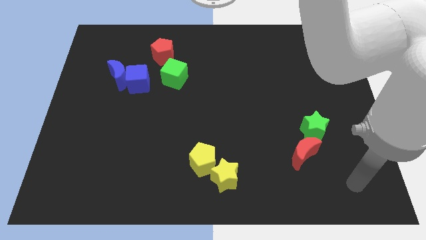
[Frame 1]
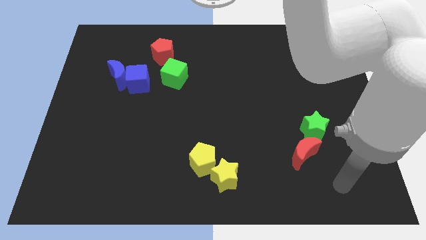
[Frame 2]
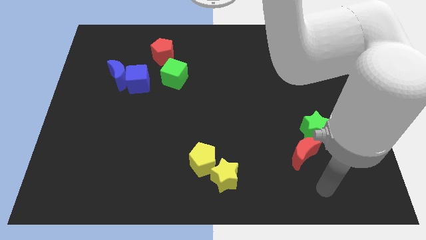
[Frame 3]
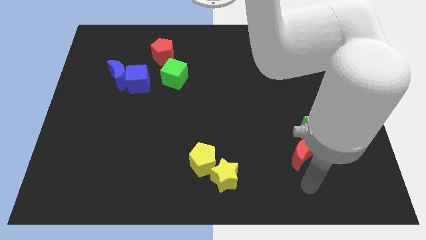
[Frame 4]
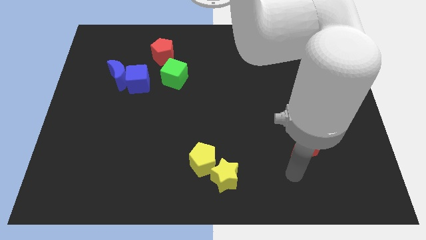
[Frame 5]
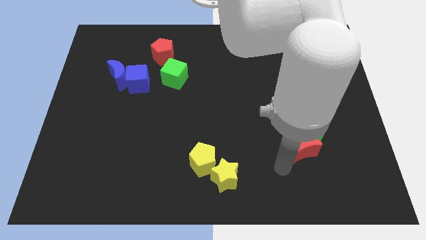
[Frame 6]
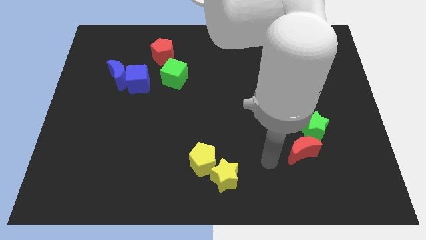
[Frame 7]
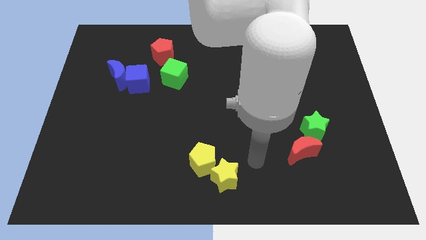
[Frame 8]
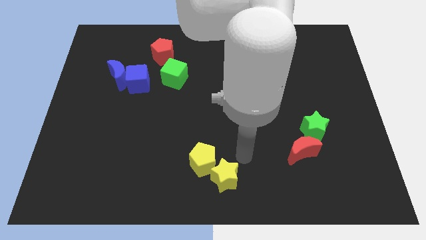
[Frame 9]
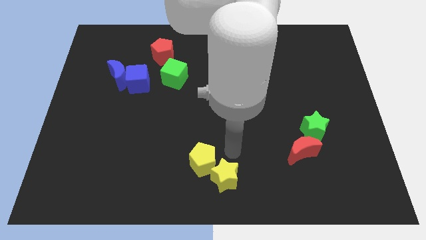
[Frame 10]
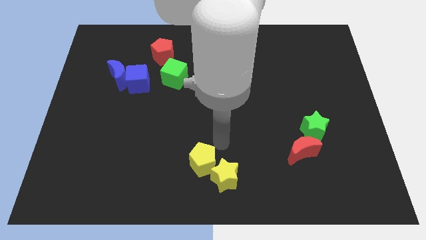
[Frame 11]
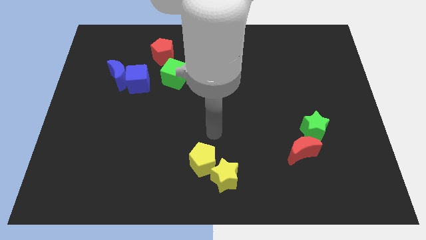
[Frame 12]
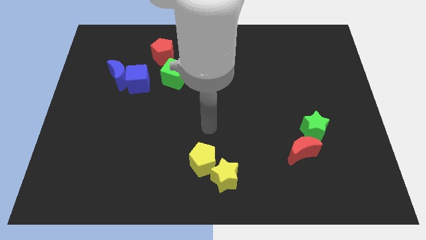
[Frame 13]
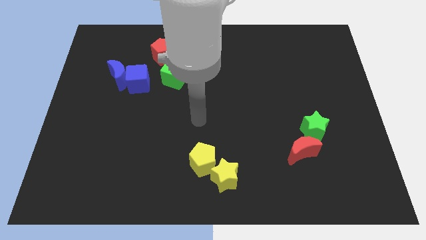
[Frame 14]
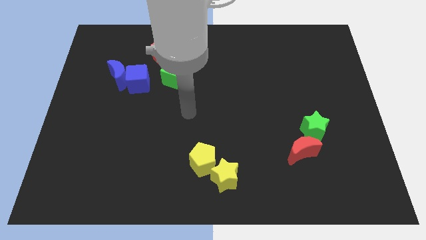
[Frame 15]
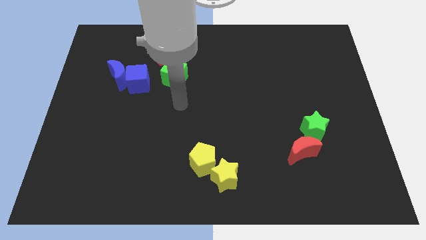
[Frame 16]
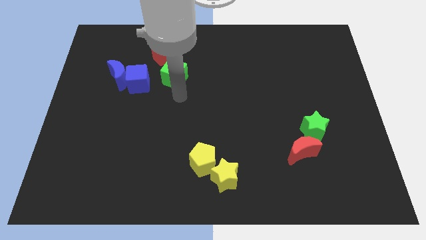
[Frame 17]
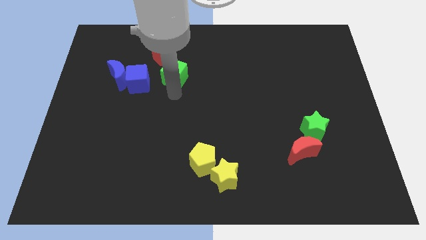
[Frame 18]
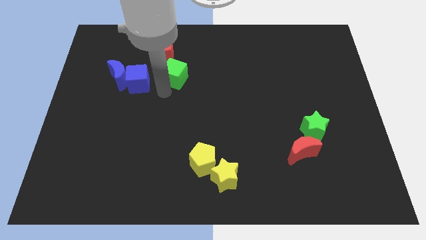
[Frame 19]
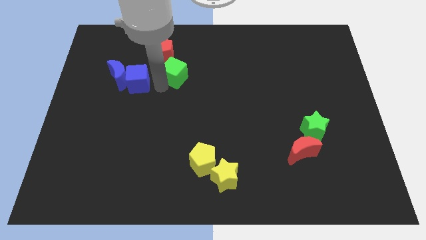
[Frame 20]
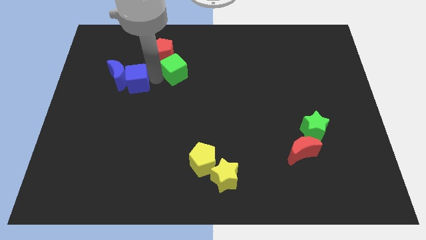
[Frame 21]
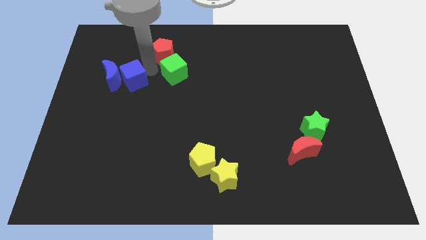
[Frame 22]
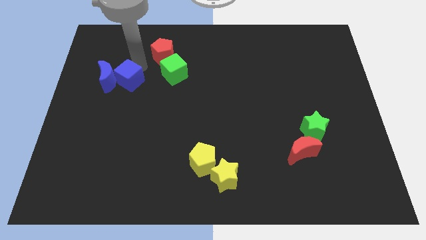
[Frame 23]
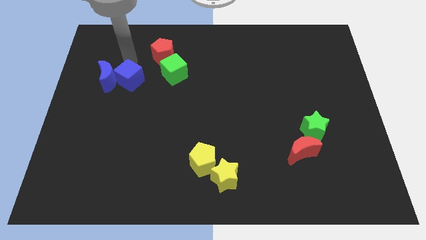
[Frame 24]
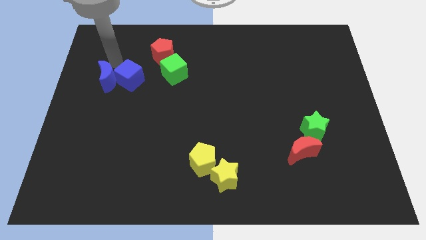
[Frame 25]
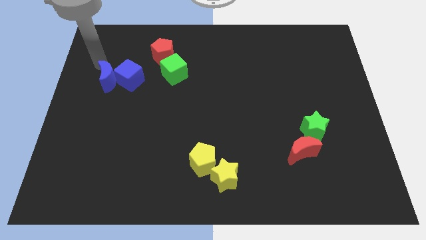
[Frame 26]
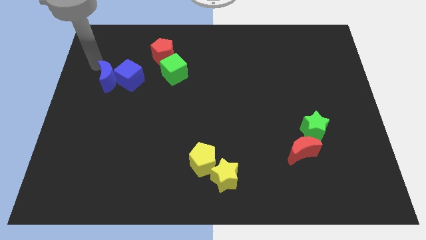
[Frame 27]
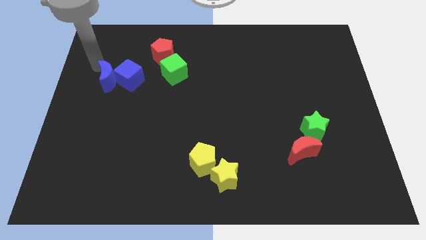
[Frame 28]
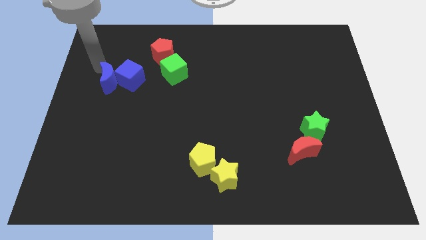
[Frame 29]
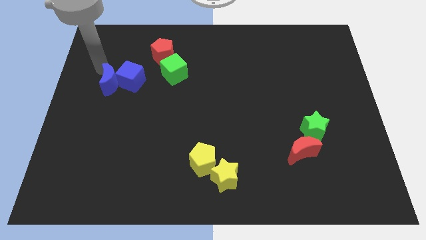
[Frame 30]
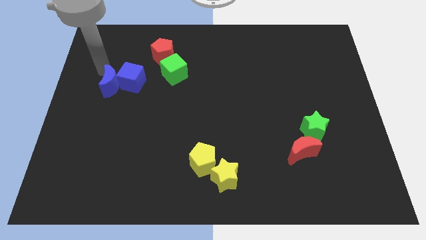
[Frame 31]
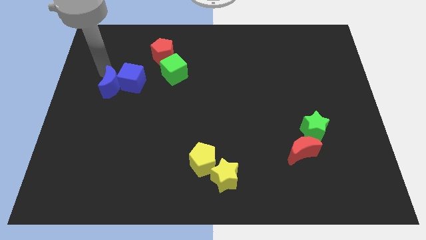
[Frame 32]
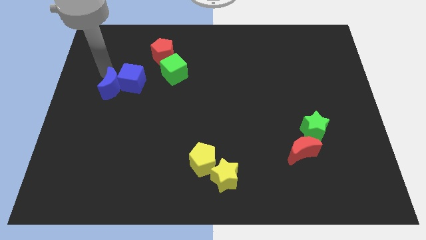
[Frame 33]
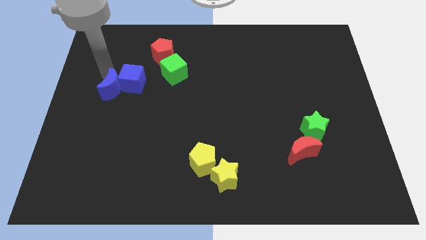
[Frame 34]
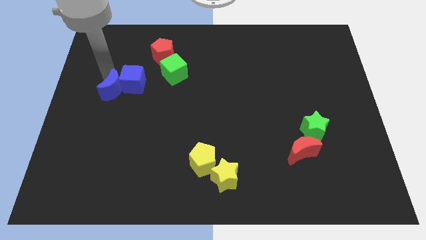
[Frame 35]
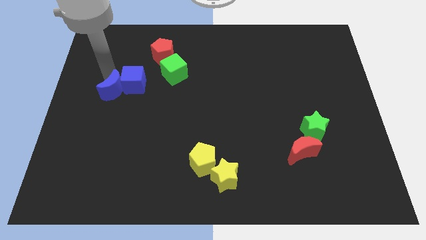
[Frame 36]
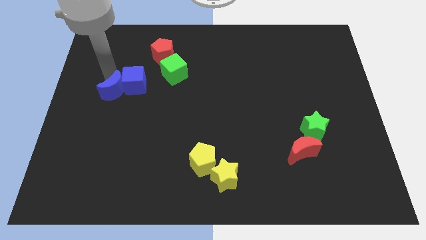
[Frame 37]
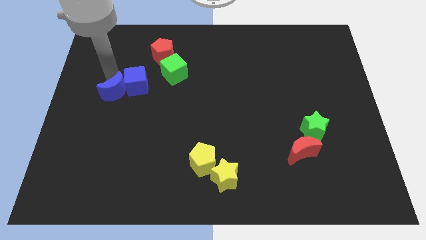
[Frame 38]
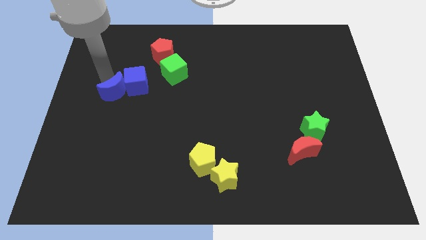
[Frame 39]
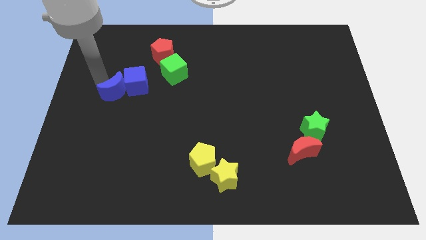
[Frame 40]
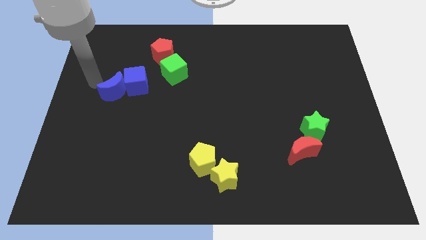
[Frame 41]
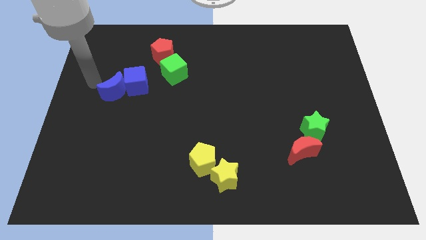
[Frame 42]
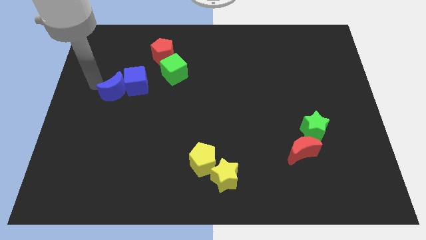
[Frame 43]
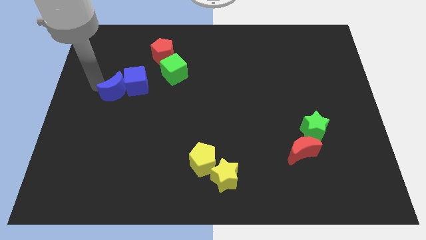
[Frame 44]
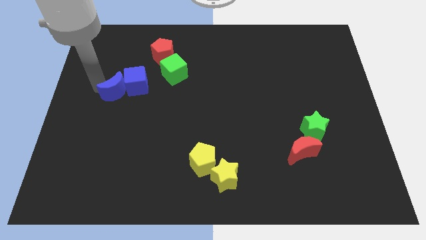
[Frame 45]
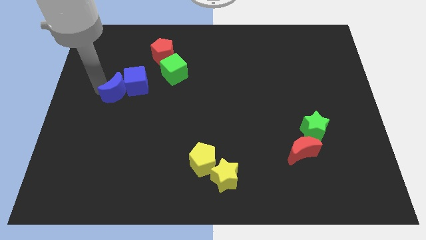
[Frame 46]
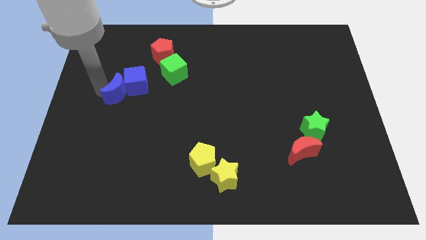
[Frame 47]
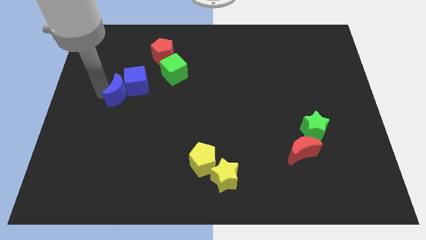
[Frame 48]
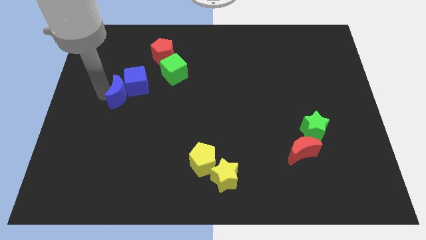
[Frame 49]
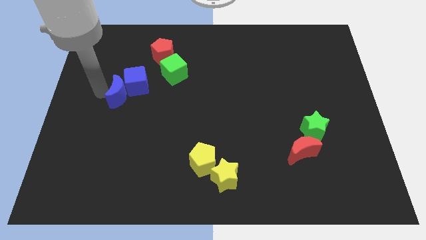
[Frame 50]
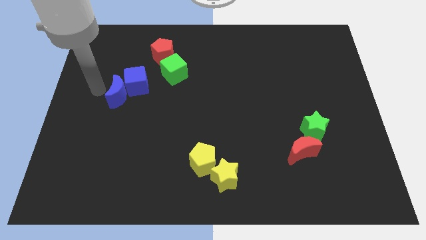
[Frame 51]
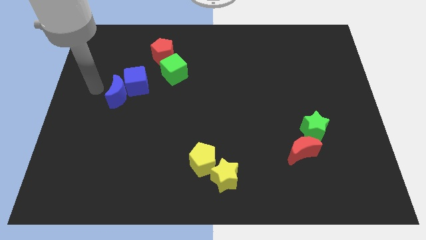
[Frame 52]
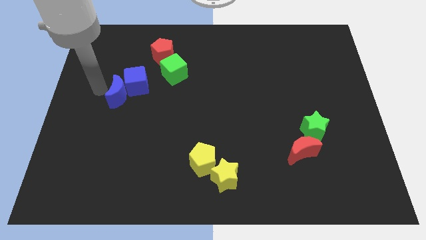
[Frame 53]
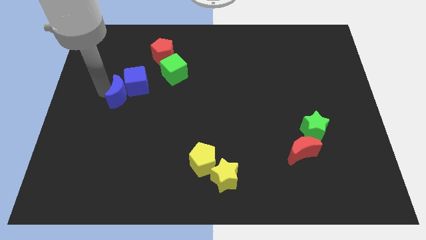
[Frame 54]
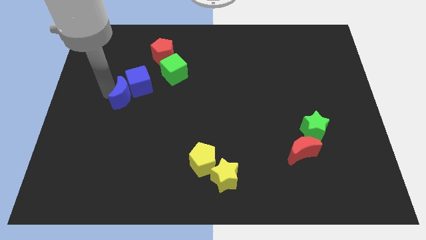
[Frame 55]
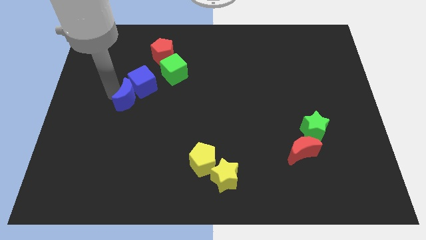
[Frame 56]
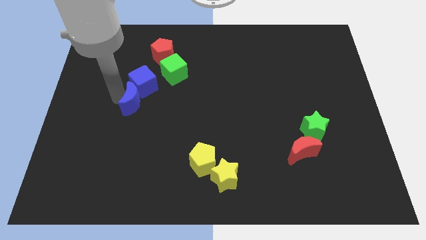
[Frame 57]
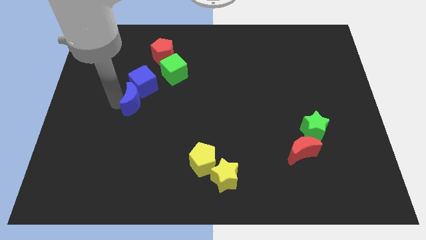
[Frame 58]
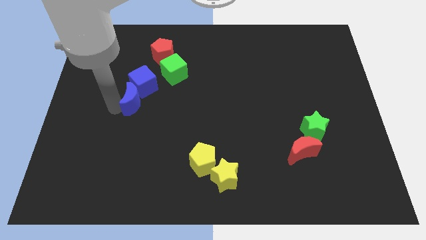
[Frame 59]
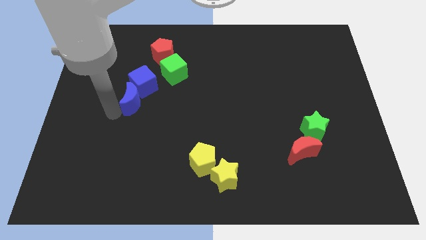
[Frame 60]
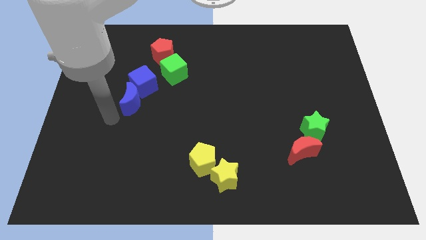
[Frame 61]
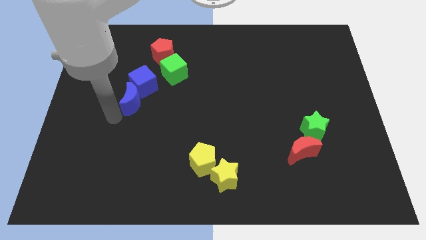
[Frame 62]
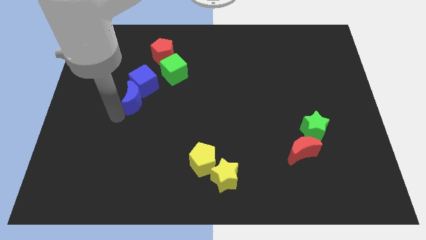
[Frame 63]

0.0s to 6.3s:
put the blue moon to the bottom left side of the green cube

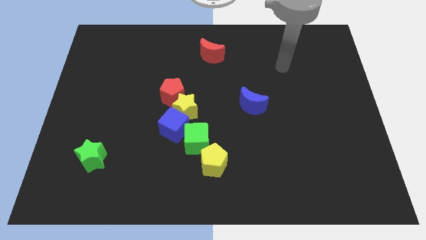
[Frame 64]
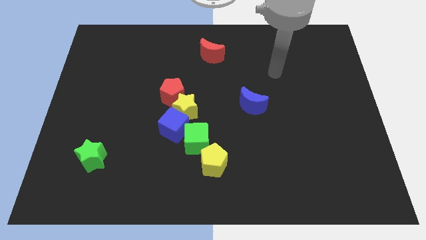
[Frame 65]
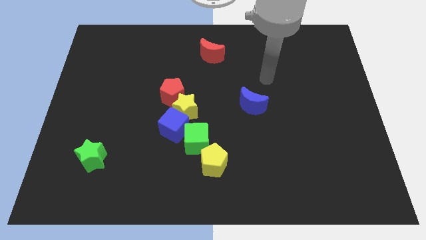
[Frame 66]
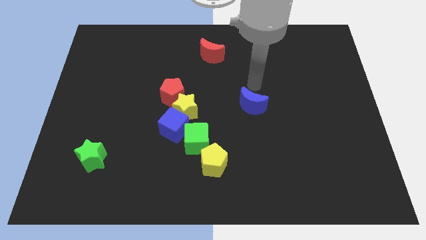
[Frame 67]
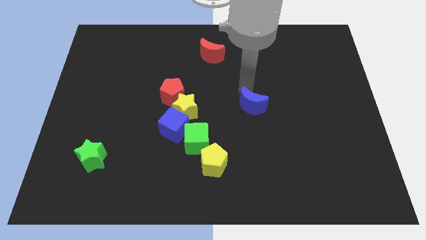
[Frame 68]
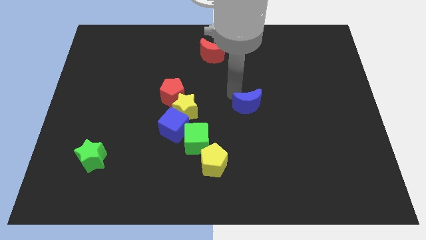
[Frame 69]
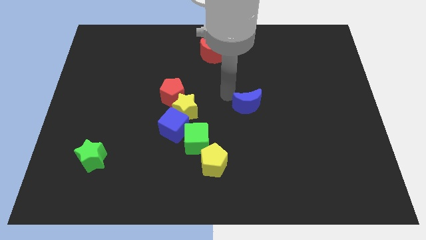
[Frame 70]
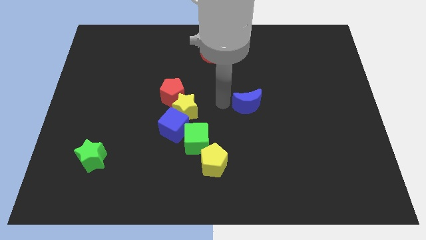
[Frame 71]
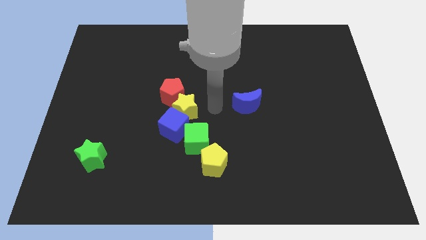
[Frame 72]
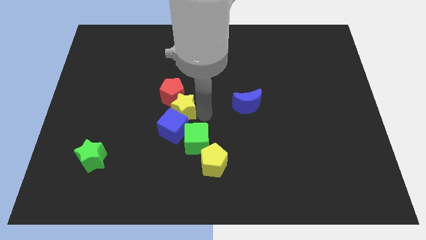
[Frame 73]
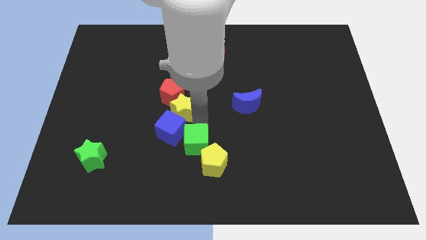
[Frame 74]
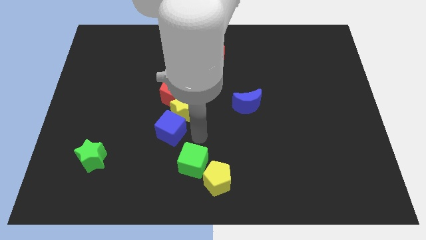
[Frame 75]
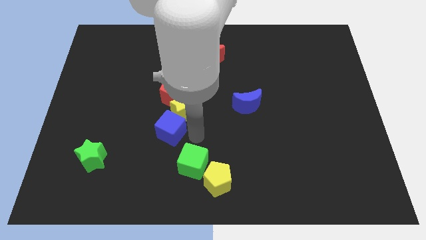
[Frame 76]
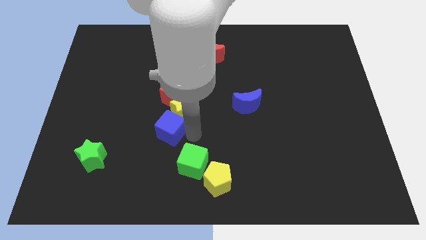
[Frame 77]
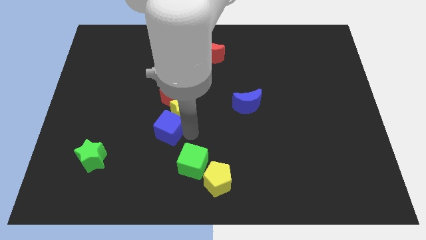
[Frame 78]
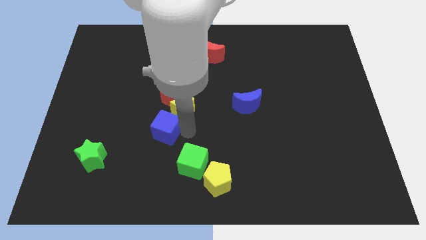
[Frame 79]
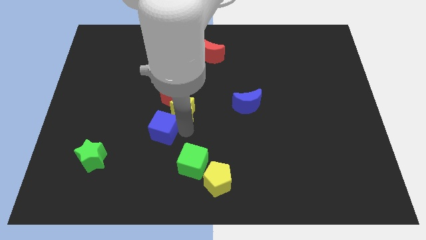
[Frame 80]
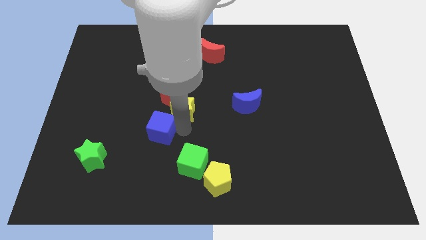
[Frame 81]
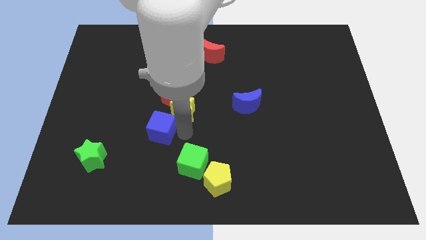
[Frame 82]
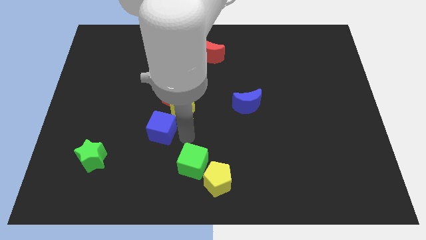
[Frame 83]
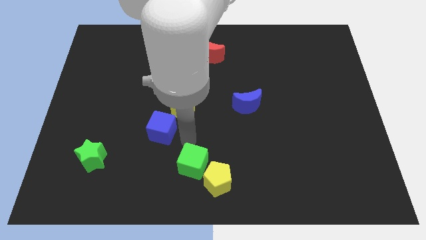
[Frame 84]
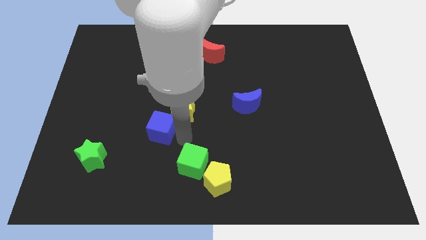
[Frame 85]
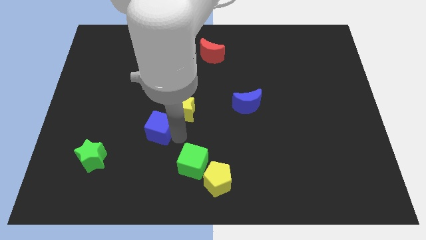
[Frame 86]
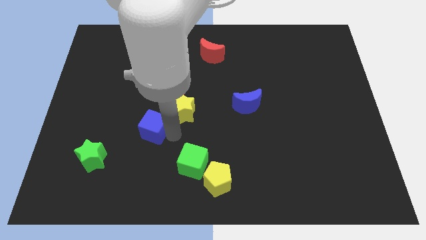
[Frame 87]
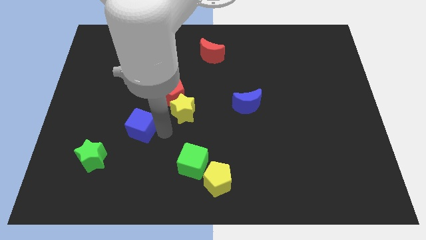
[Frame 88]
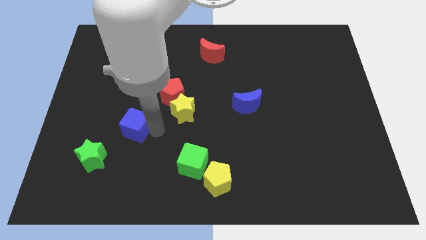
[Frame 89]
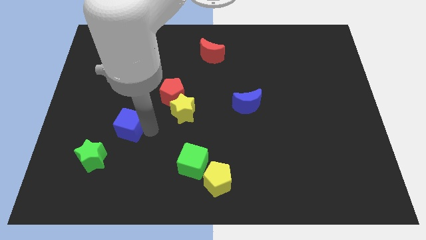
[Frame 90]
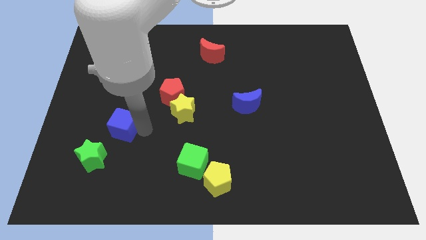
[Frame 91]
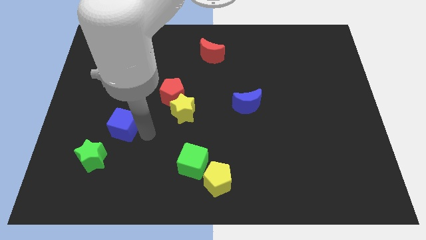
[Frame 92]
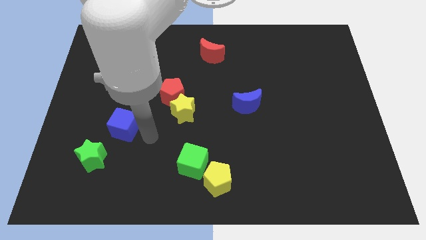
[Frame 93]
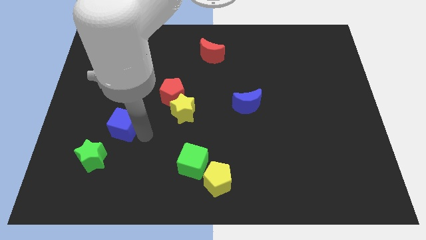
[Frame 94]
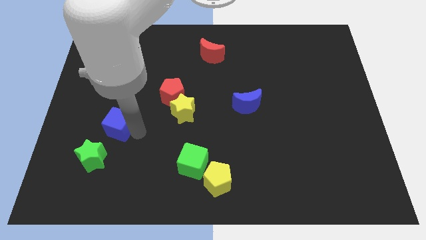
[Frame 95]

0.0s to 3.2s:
push the blue cube to the top of the green star
